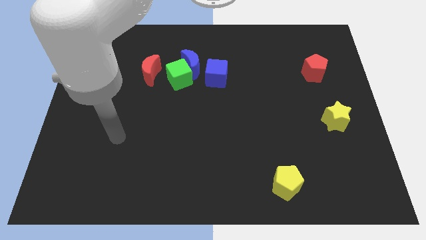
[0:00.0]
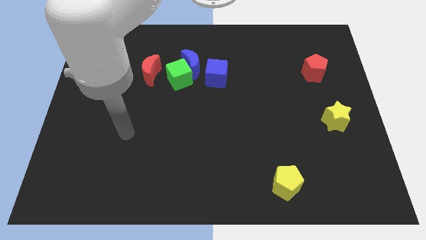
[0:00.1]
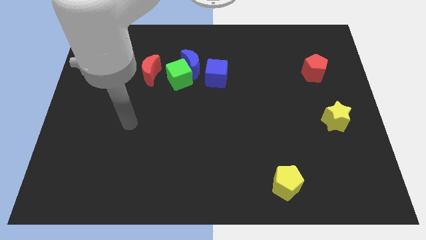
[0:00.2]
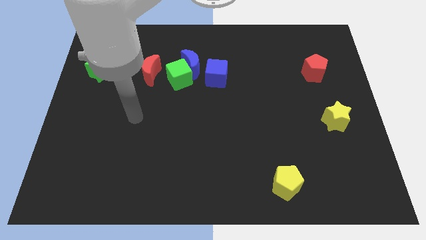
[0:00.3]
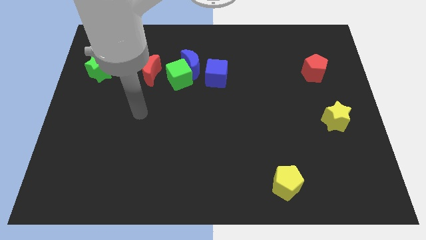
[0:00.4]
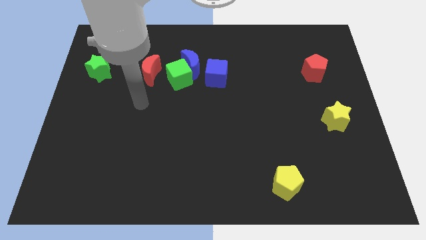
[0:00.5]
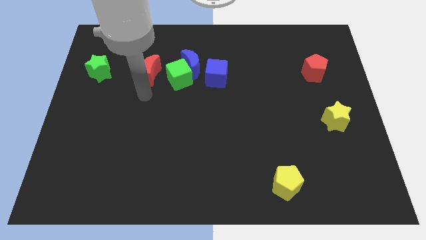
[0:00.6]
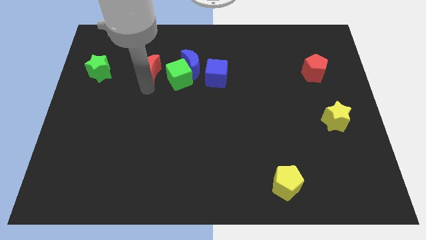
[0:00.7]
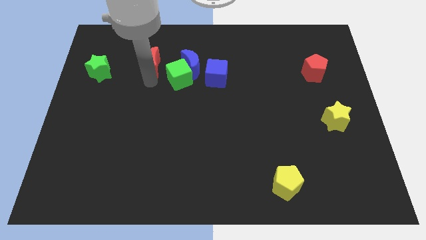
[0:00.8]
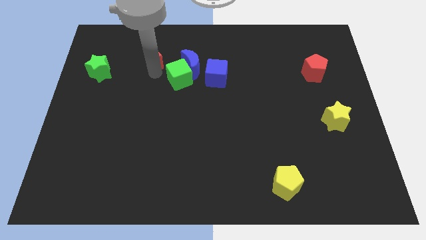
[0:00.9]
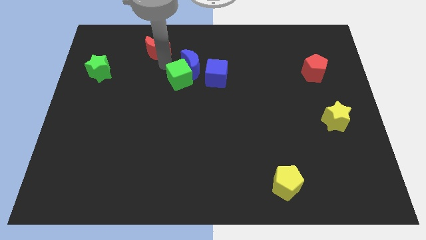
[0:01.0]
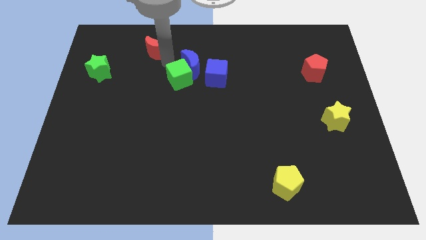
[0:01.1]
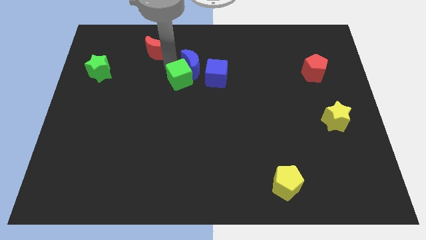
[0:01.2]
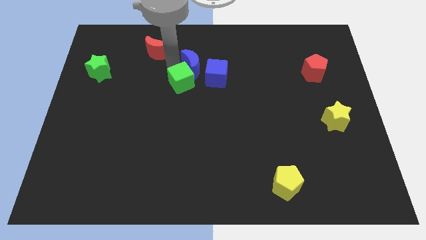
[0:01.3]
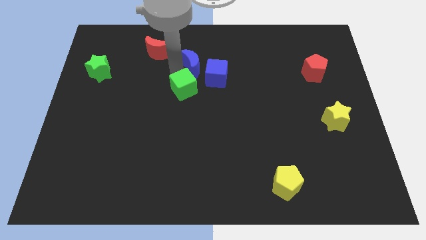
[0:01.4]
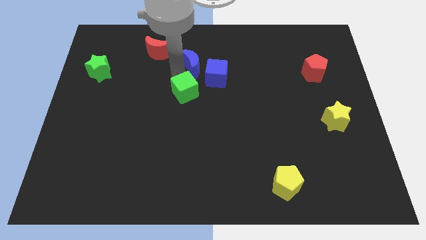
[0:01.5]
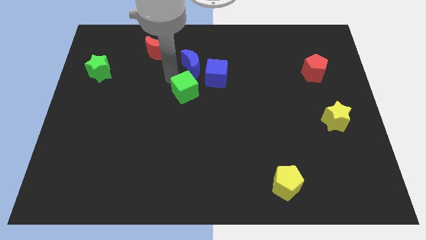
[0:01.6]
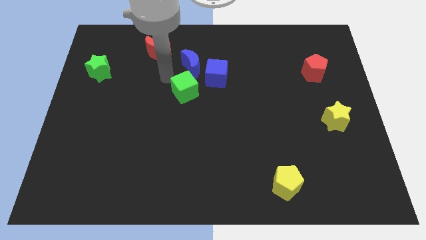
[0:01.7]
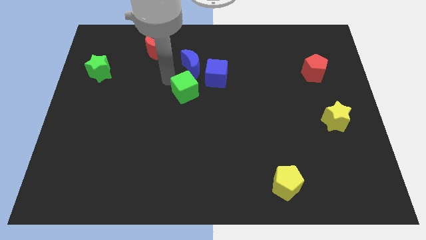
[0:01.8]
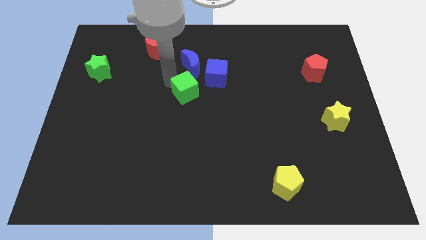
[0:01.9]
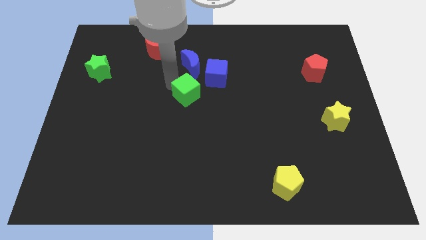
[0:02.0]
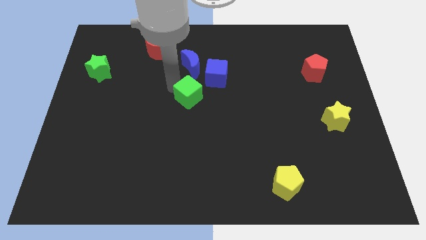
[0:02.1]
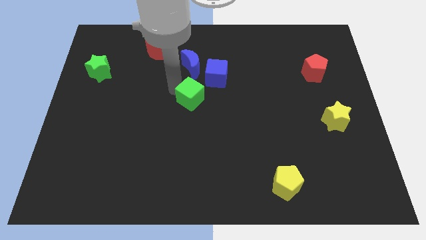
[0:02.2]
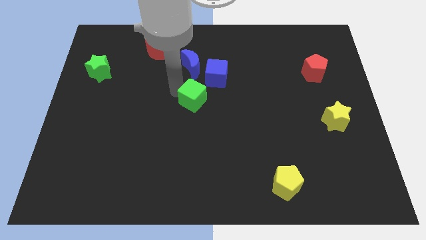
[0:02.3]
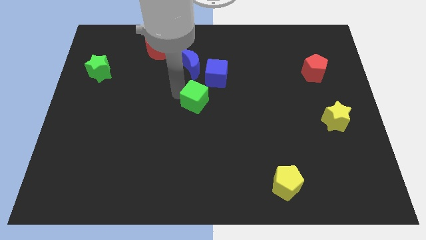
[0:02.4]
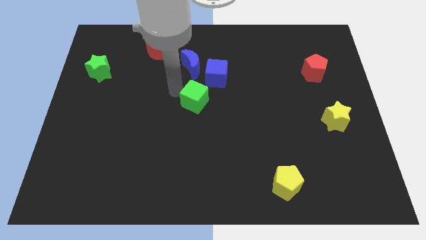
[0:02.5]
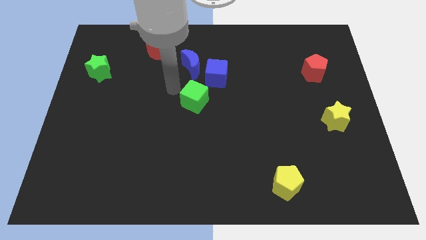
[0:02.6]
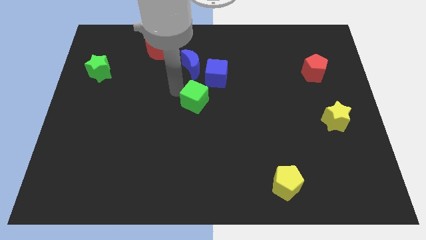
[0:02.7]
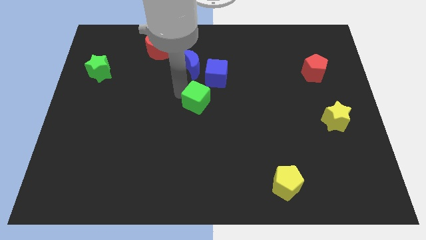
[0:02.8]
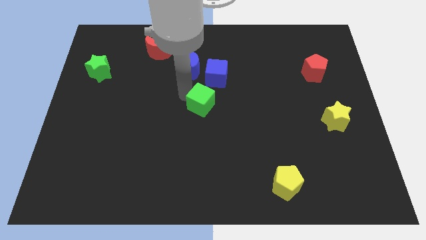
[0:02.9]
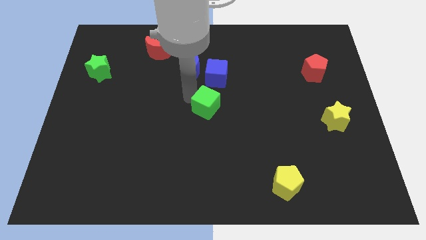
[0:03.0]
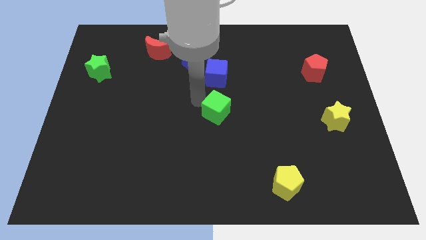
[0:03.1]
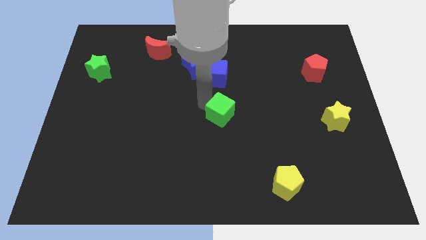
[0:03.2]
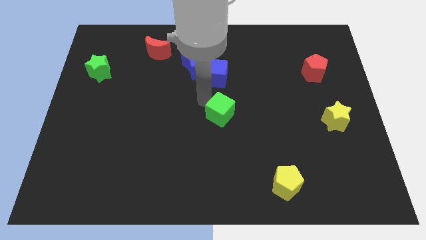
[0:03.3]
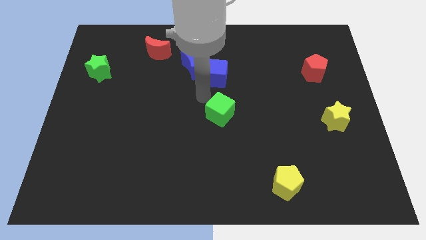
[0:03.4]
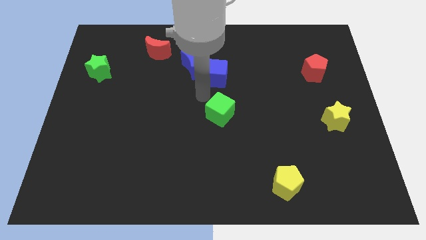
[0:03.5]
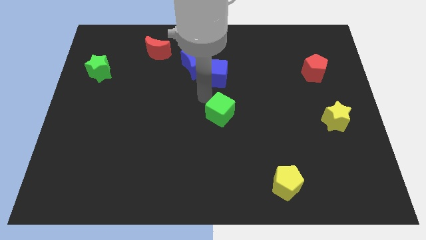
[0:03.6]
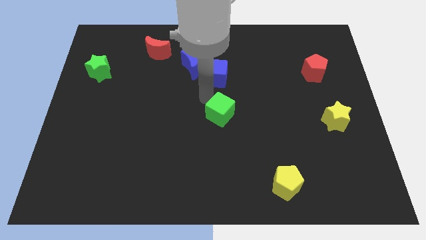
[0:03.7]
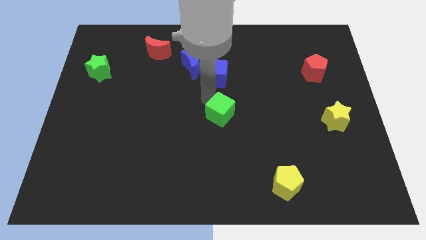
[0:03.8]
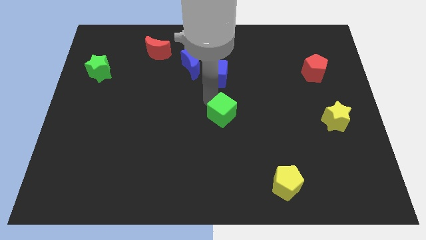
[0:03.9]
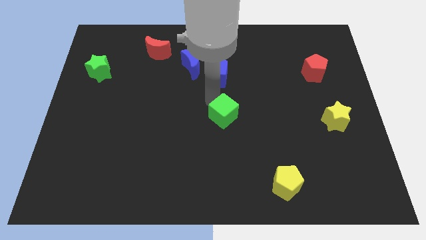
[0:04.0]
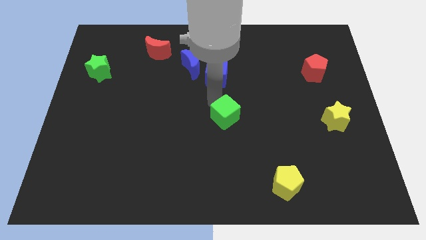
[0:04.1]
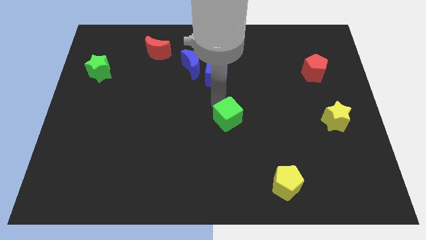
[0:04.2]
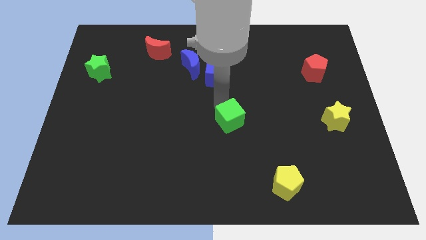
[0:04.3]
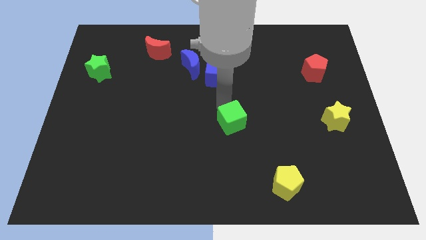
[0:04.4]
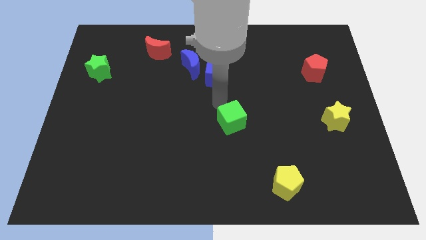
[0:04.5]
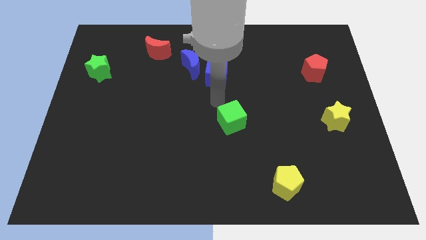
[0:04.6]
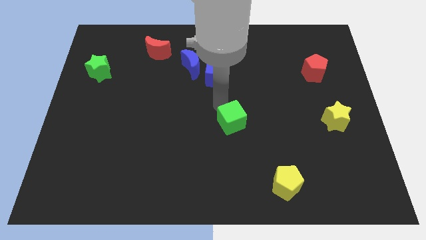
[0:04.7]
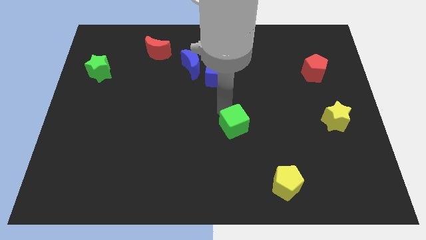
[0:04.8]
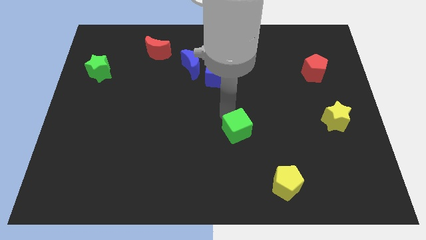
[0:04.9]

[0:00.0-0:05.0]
slide the green cube downwards and right

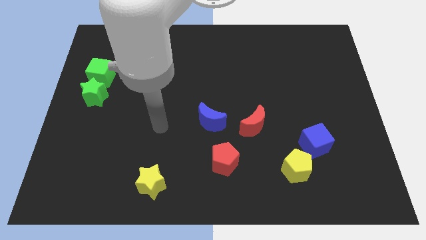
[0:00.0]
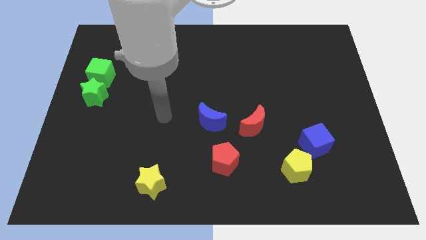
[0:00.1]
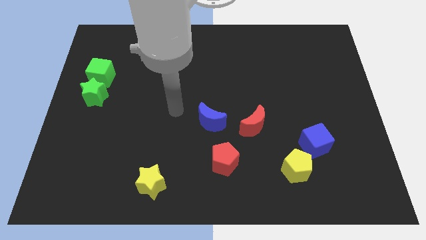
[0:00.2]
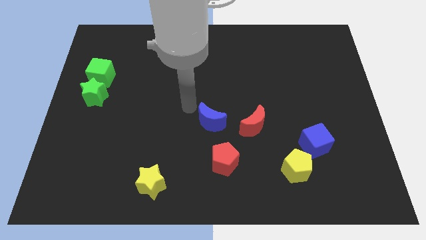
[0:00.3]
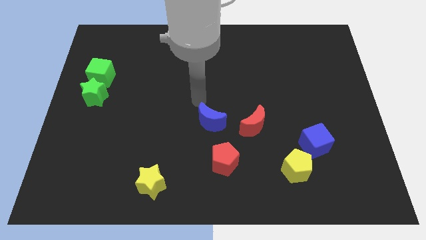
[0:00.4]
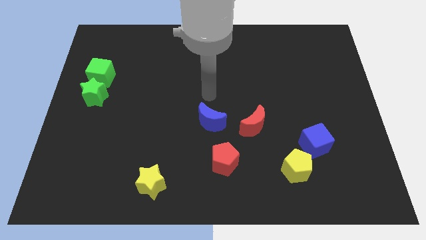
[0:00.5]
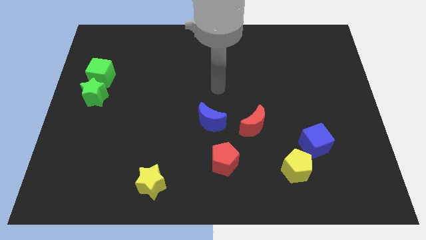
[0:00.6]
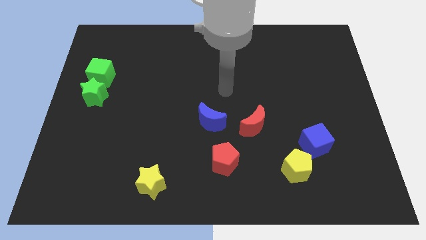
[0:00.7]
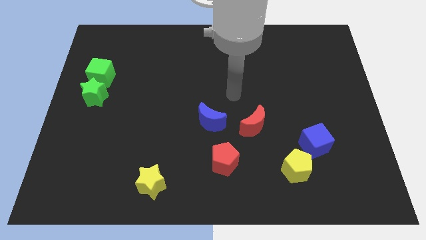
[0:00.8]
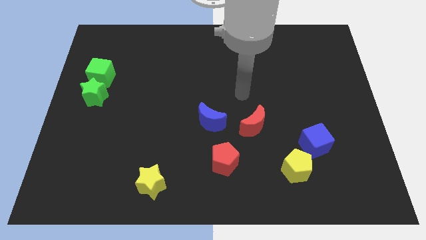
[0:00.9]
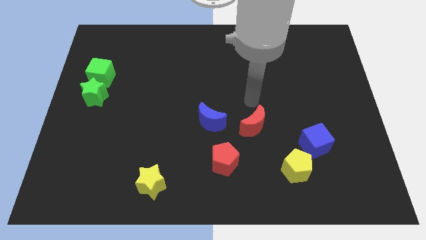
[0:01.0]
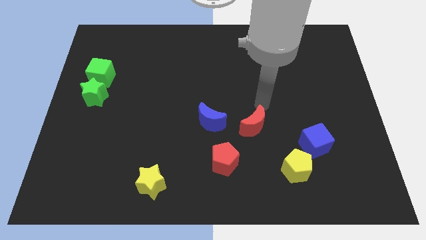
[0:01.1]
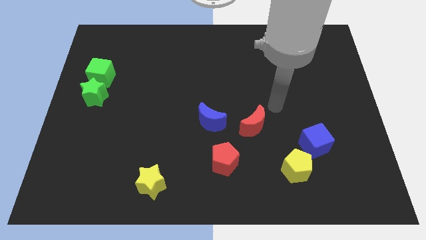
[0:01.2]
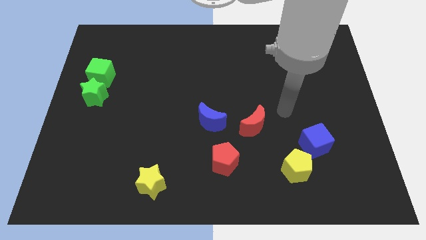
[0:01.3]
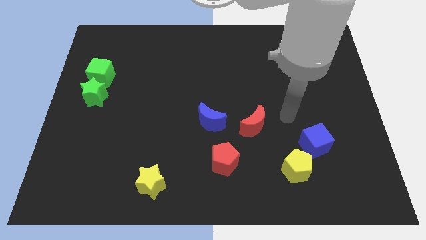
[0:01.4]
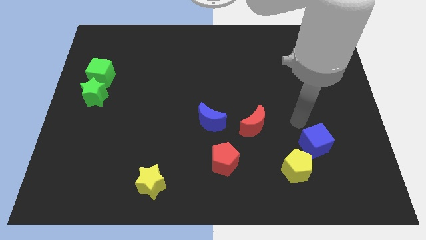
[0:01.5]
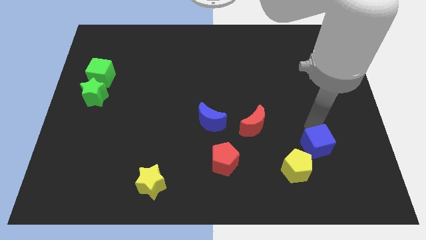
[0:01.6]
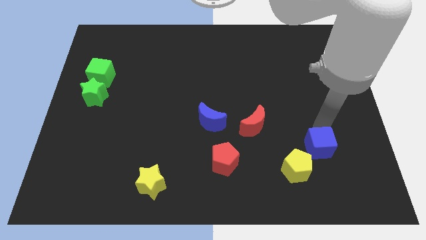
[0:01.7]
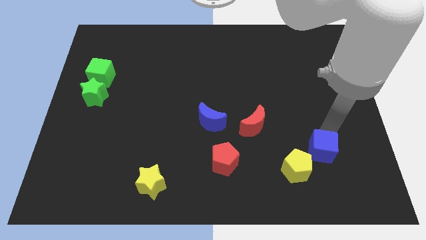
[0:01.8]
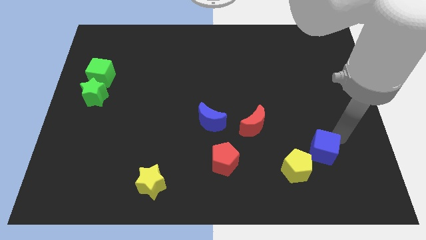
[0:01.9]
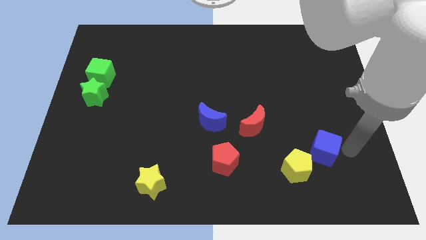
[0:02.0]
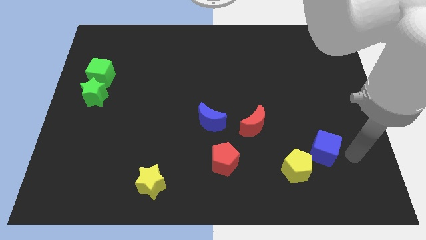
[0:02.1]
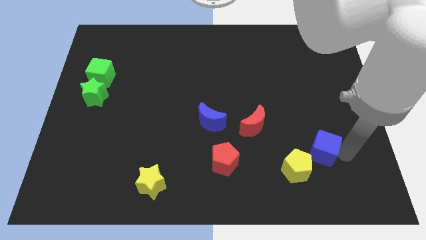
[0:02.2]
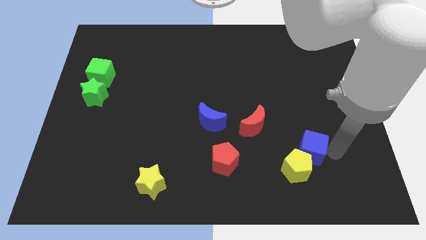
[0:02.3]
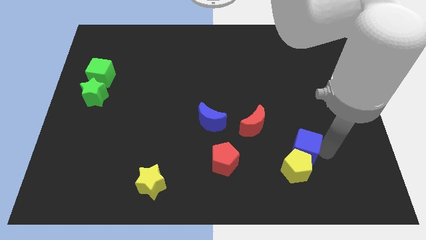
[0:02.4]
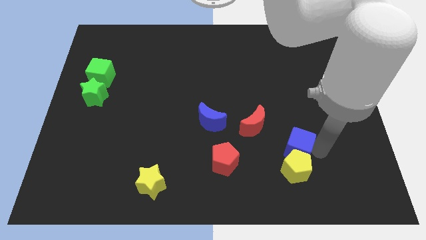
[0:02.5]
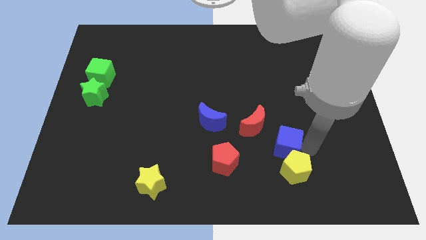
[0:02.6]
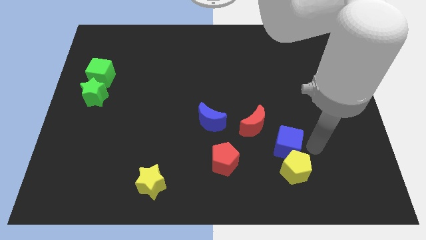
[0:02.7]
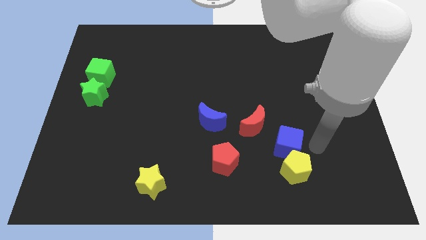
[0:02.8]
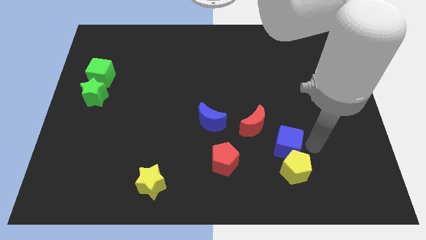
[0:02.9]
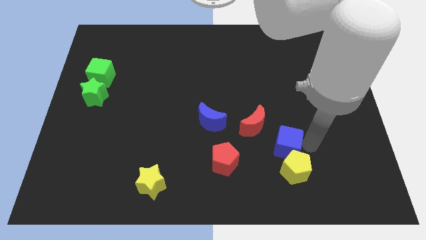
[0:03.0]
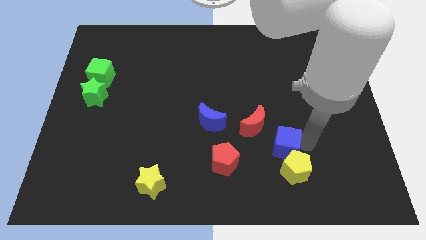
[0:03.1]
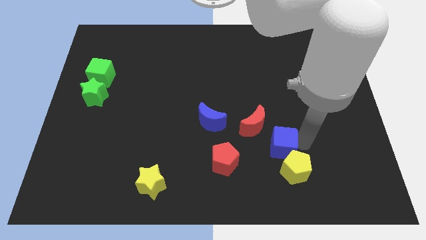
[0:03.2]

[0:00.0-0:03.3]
slightly push the blue cube to the left

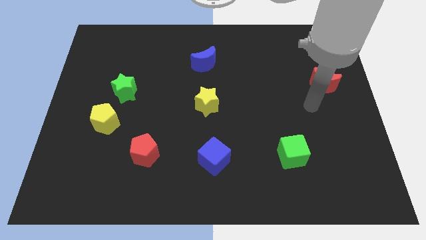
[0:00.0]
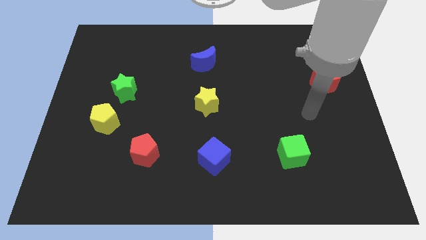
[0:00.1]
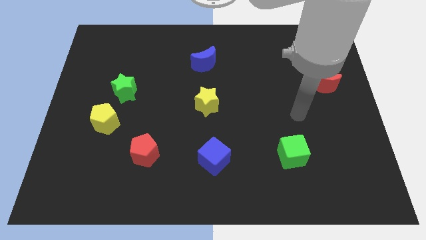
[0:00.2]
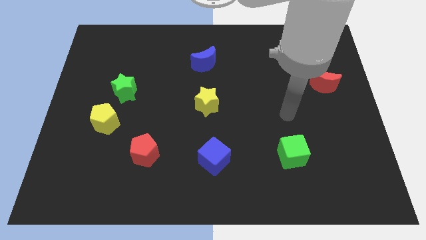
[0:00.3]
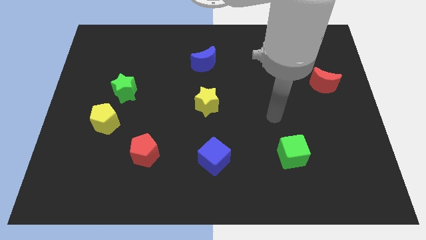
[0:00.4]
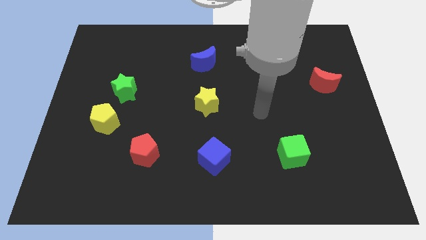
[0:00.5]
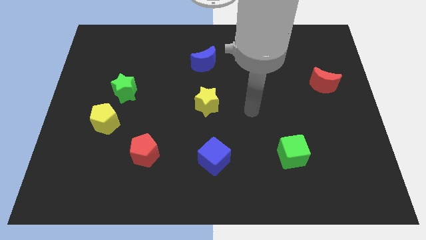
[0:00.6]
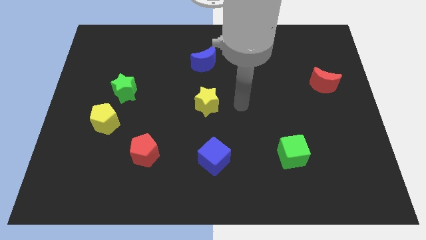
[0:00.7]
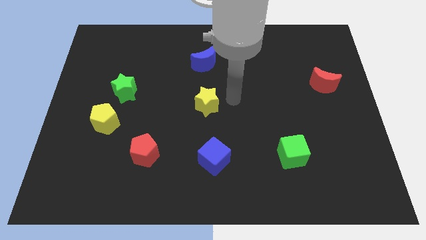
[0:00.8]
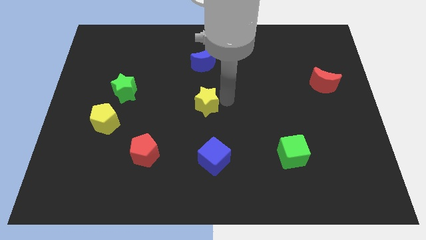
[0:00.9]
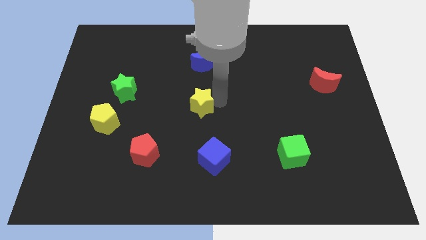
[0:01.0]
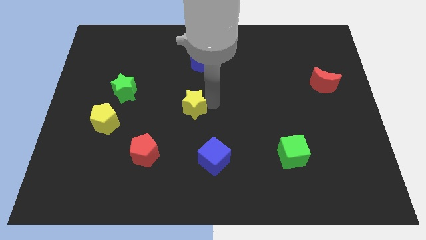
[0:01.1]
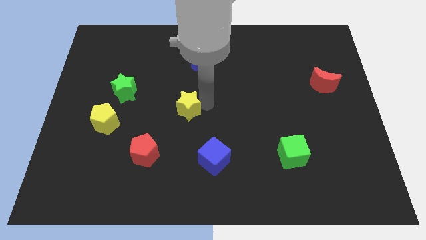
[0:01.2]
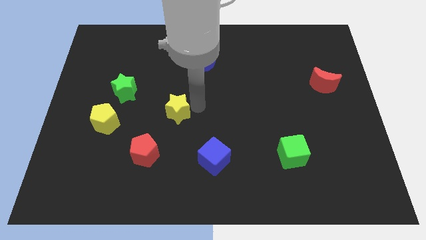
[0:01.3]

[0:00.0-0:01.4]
slightly push the yellow star left
